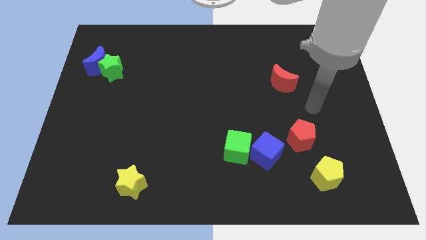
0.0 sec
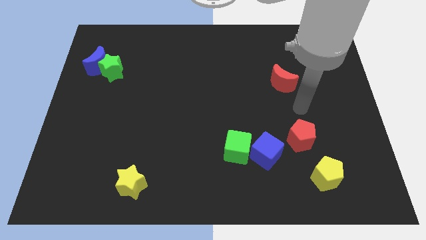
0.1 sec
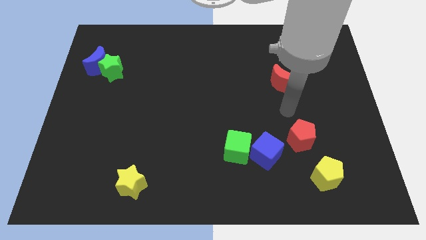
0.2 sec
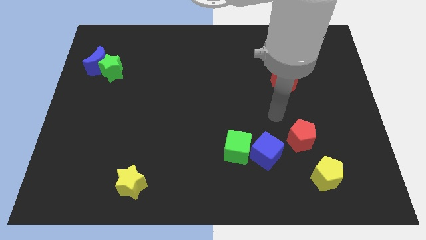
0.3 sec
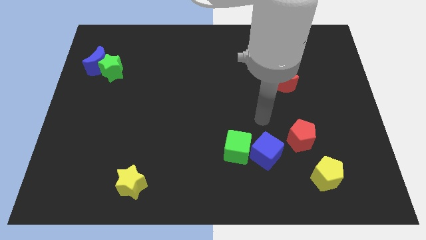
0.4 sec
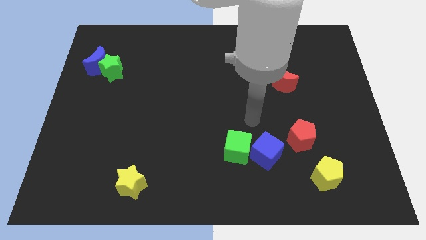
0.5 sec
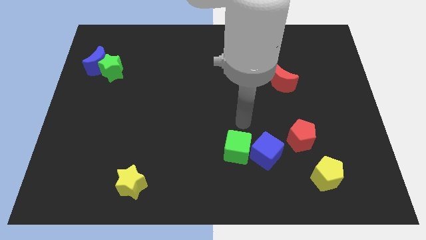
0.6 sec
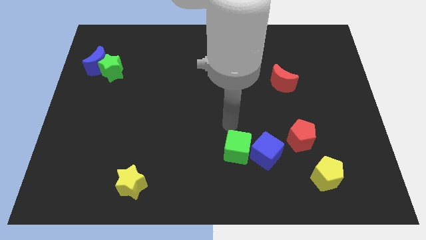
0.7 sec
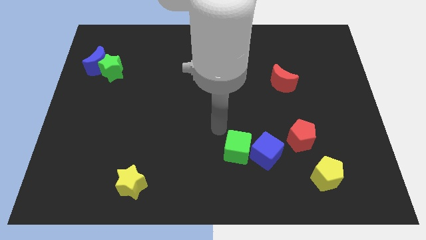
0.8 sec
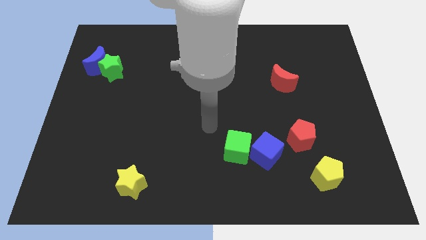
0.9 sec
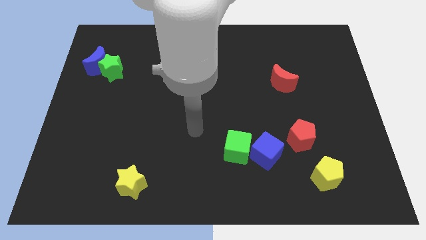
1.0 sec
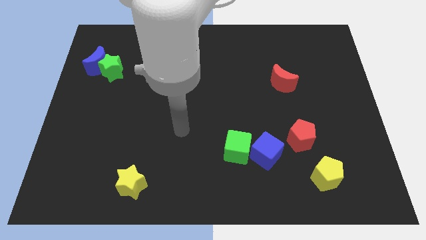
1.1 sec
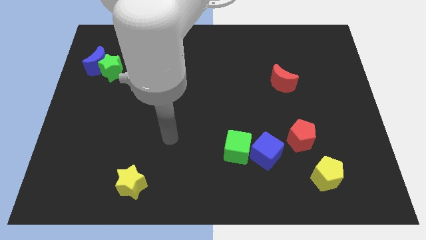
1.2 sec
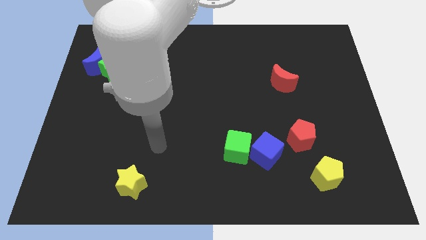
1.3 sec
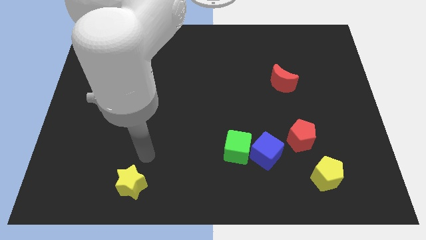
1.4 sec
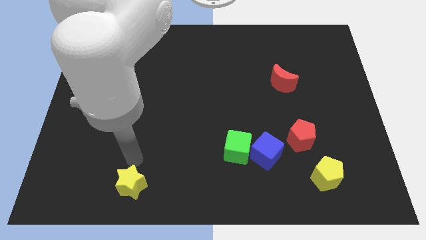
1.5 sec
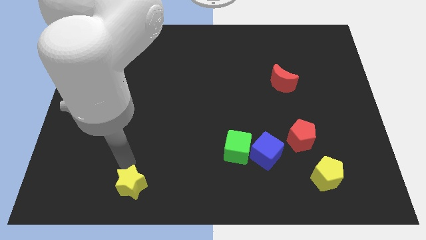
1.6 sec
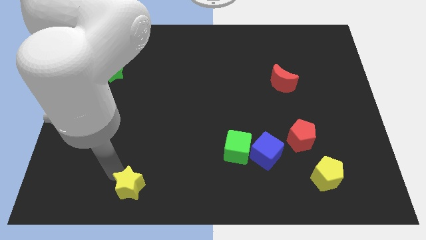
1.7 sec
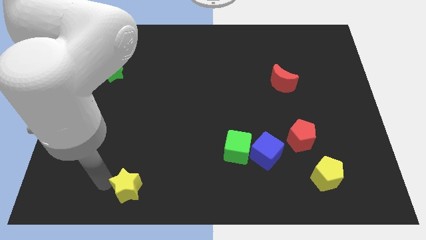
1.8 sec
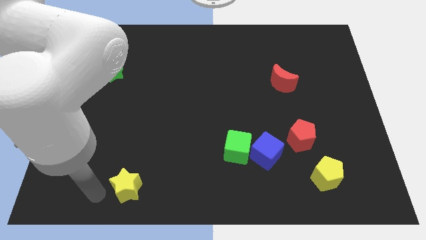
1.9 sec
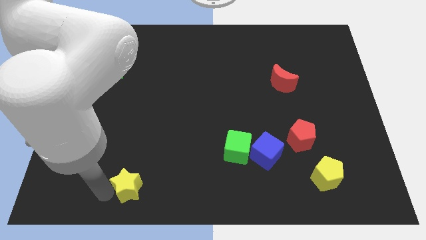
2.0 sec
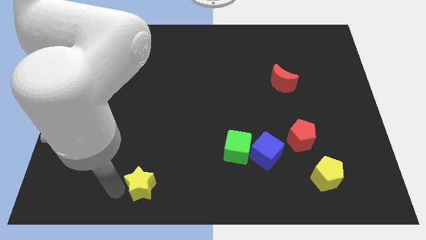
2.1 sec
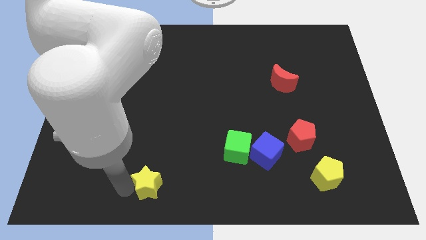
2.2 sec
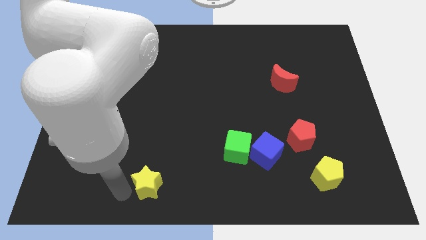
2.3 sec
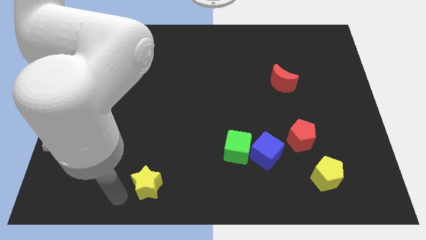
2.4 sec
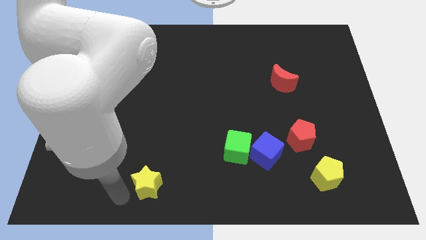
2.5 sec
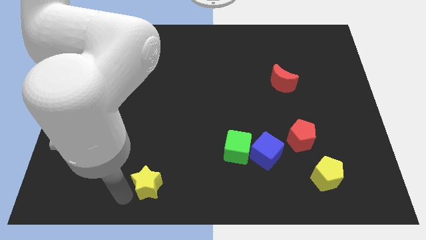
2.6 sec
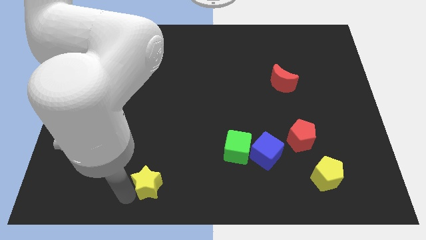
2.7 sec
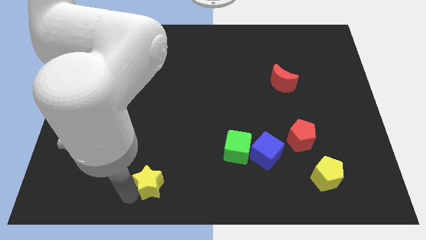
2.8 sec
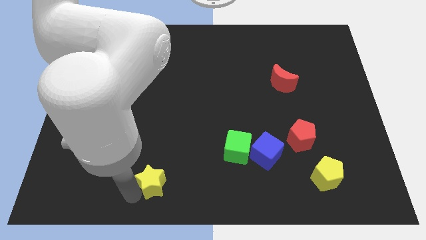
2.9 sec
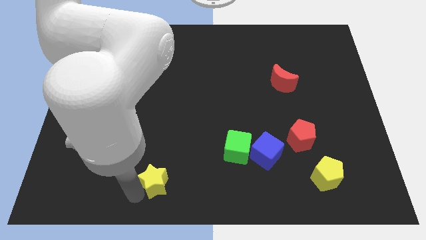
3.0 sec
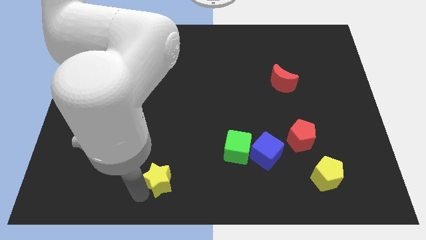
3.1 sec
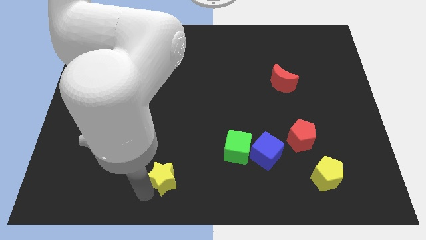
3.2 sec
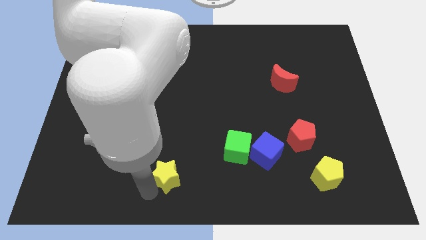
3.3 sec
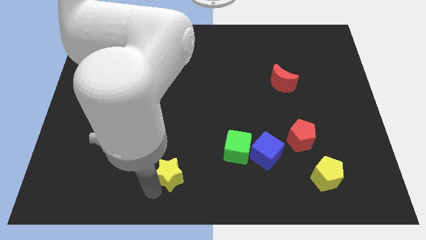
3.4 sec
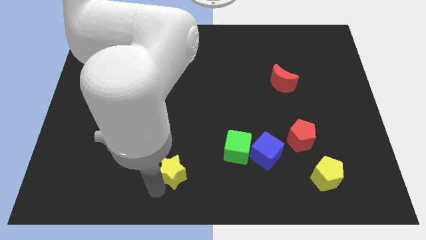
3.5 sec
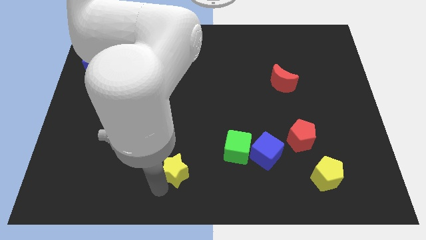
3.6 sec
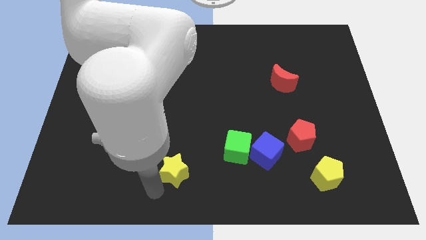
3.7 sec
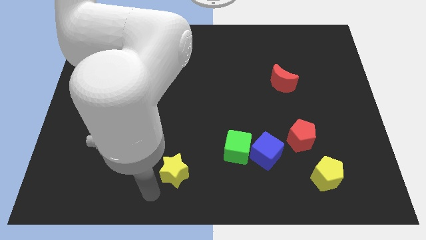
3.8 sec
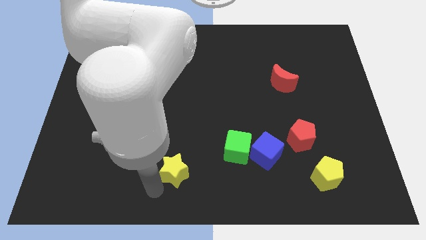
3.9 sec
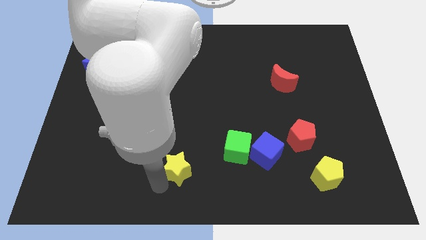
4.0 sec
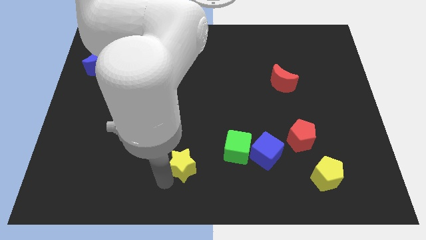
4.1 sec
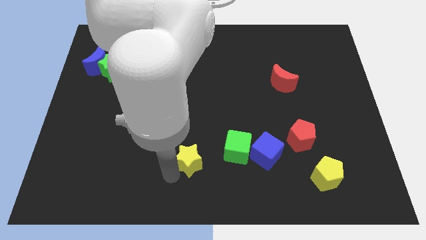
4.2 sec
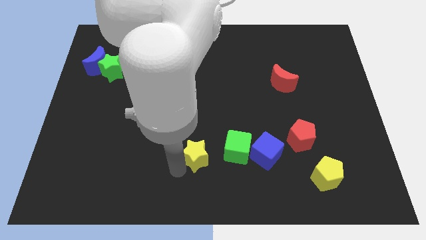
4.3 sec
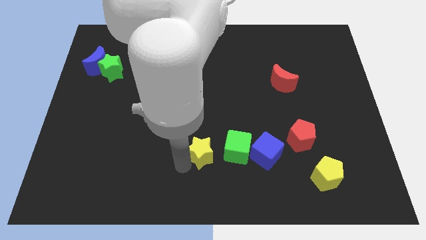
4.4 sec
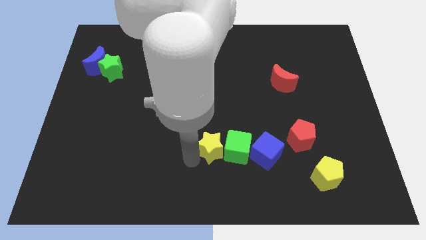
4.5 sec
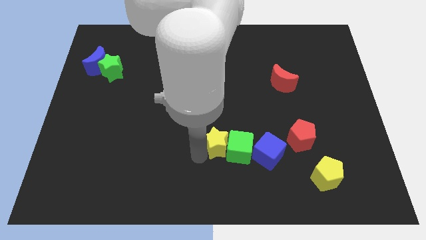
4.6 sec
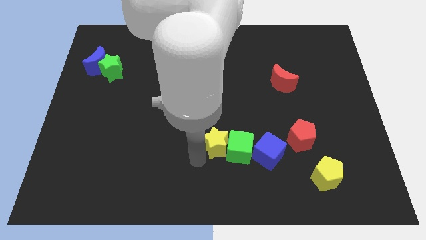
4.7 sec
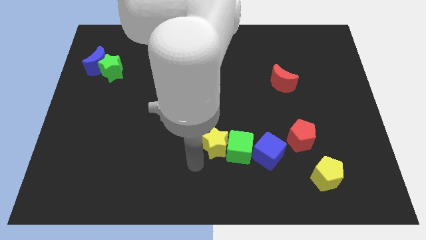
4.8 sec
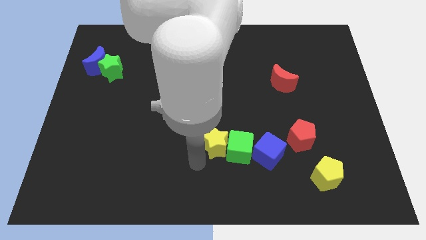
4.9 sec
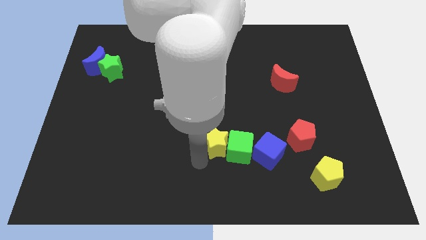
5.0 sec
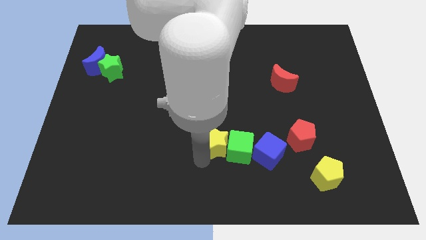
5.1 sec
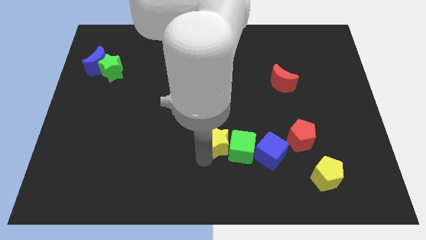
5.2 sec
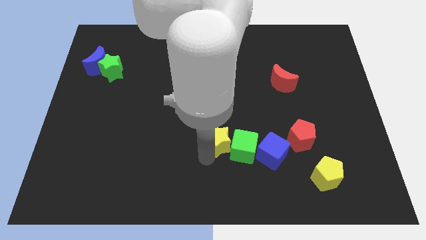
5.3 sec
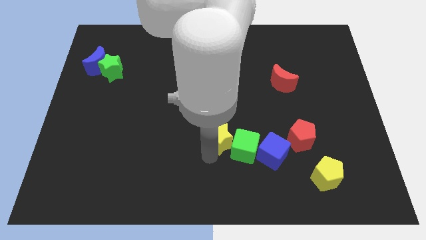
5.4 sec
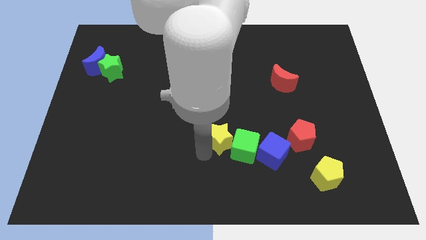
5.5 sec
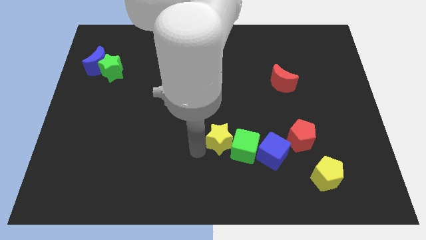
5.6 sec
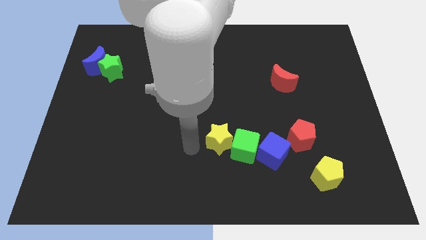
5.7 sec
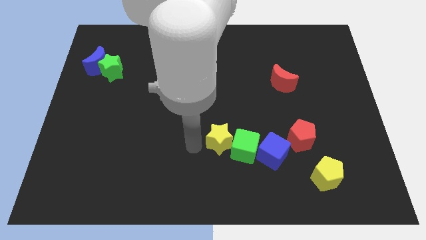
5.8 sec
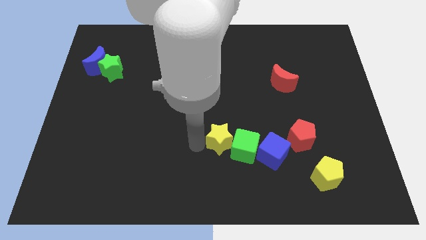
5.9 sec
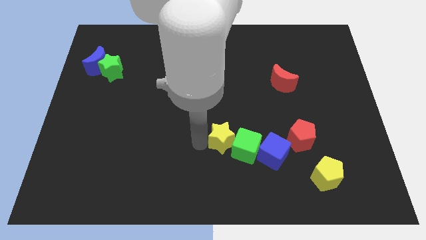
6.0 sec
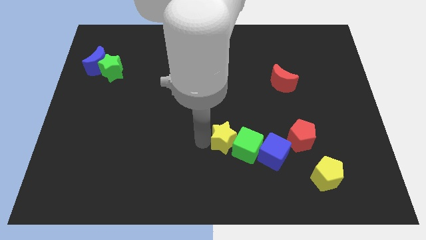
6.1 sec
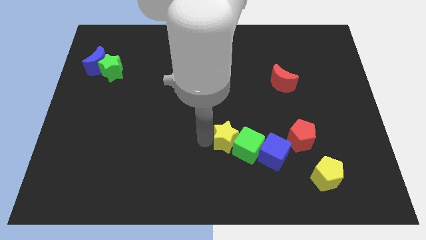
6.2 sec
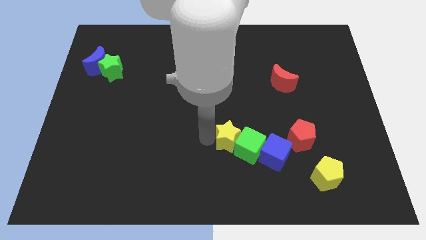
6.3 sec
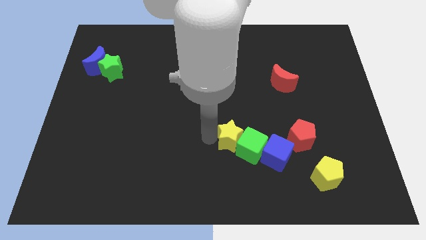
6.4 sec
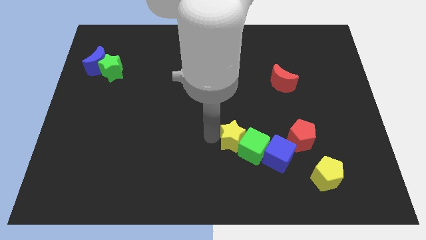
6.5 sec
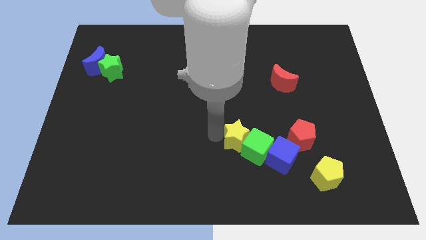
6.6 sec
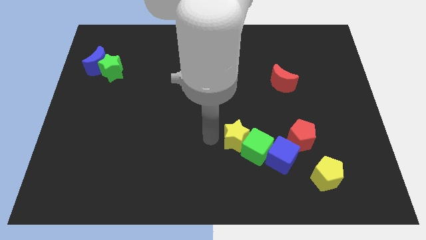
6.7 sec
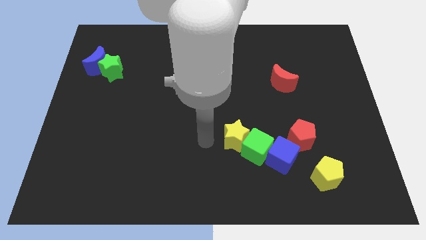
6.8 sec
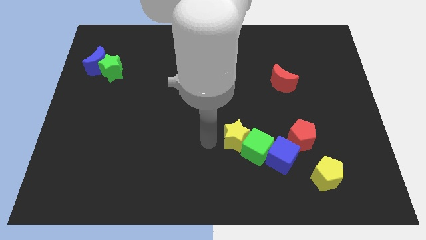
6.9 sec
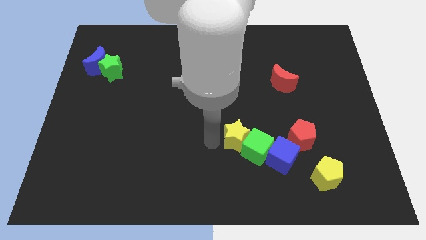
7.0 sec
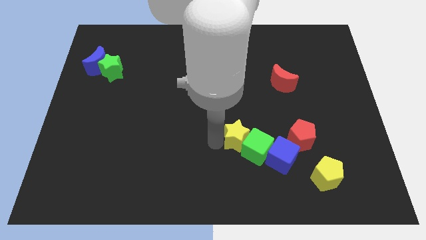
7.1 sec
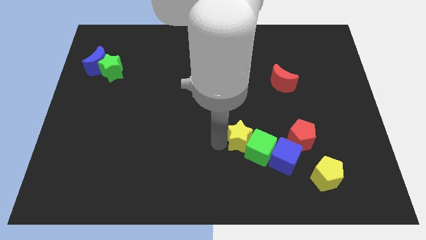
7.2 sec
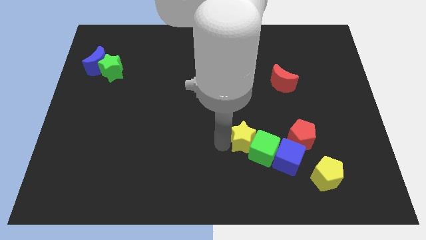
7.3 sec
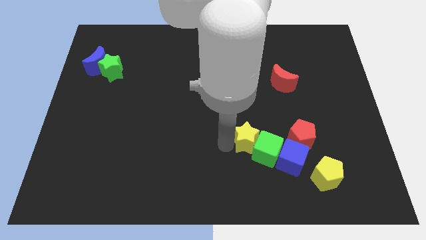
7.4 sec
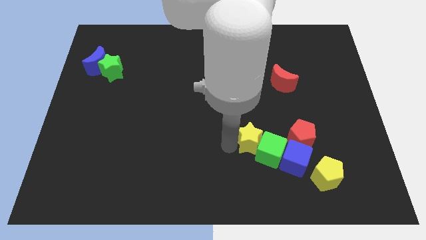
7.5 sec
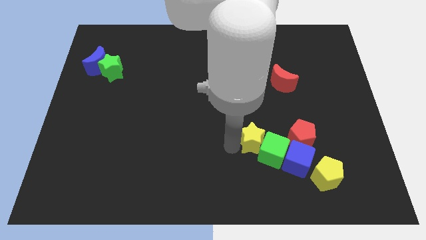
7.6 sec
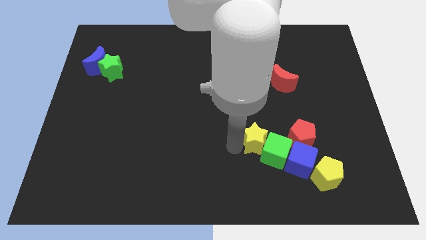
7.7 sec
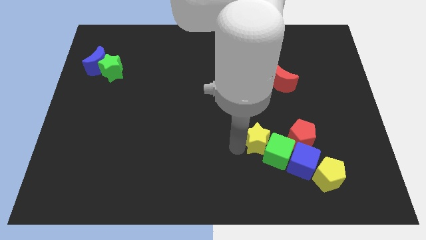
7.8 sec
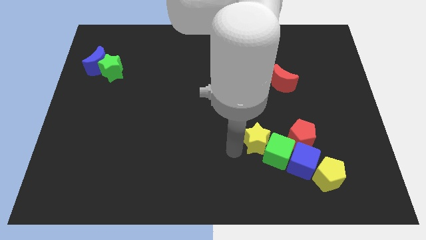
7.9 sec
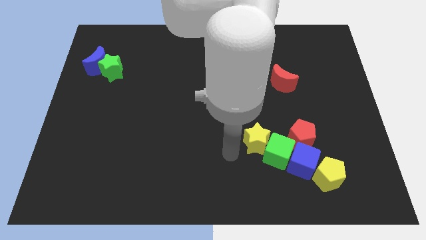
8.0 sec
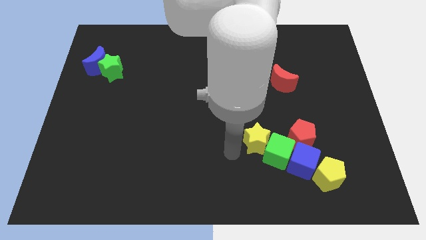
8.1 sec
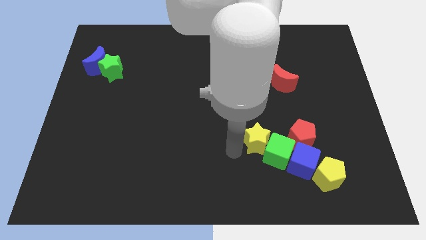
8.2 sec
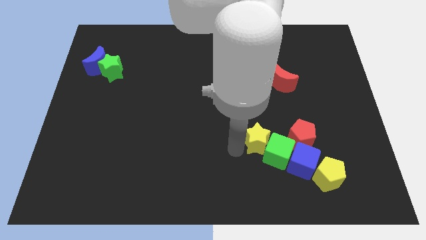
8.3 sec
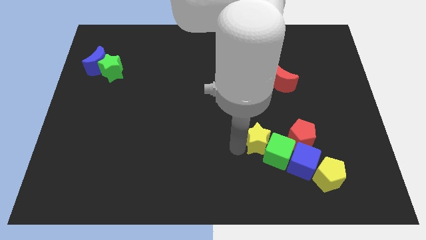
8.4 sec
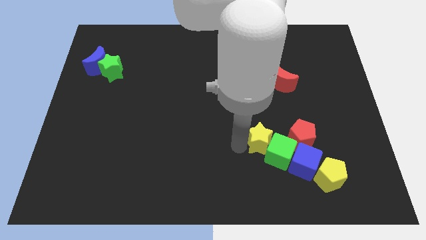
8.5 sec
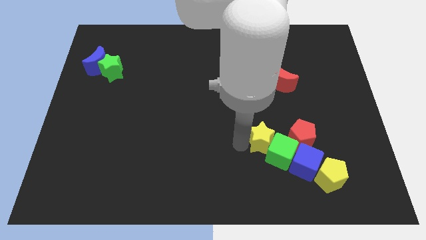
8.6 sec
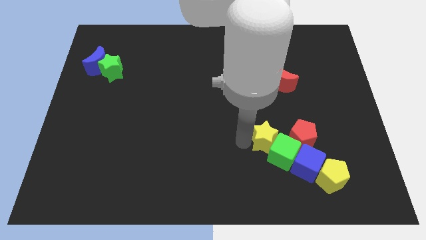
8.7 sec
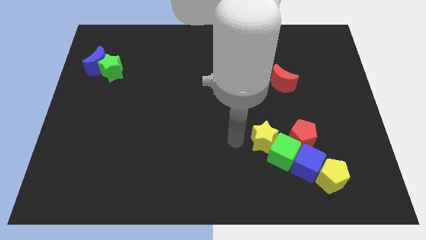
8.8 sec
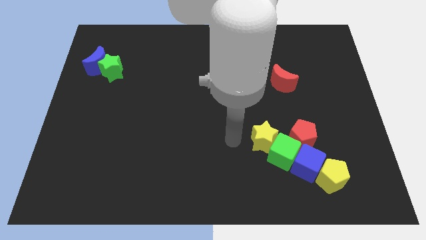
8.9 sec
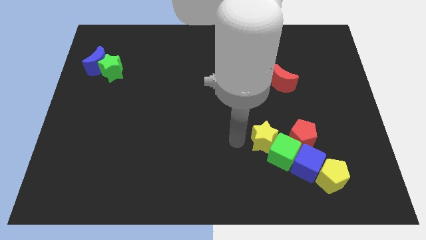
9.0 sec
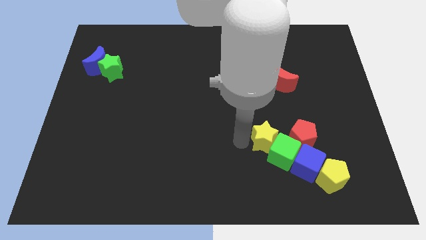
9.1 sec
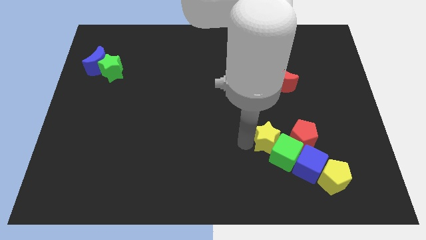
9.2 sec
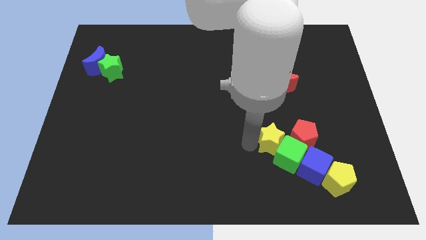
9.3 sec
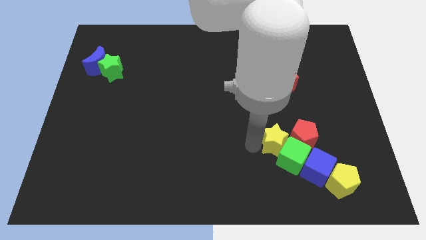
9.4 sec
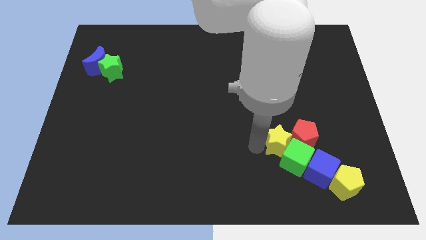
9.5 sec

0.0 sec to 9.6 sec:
put the yellow star to the red pentagon
